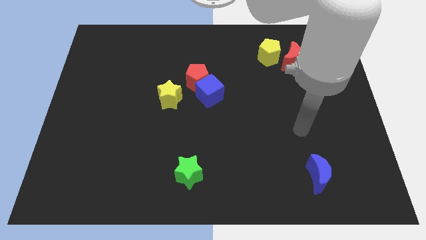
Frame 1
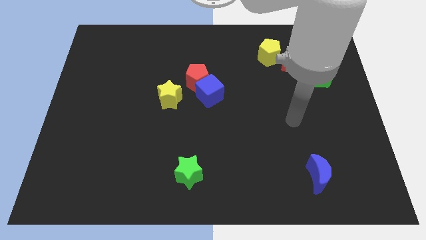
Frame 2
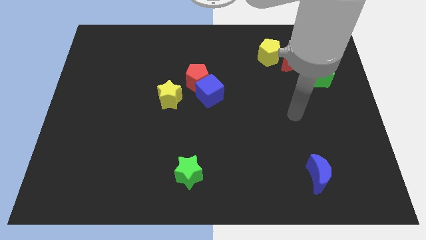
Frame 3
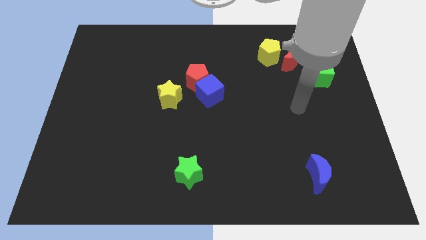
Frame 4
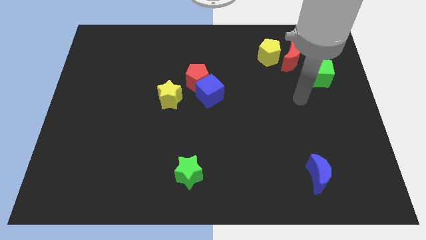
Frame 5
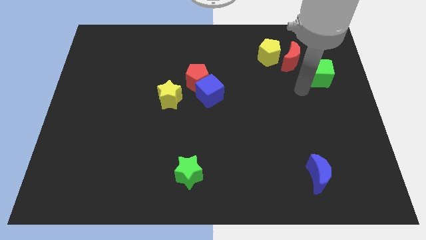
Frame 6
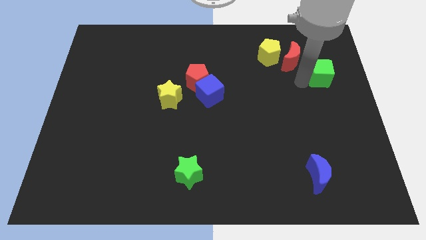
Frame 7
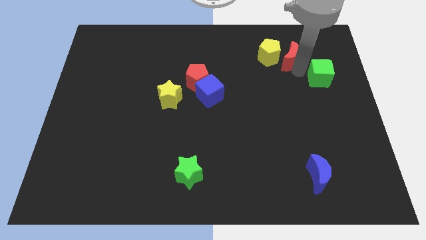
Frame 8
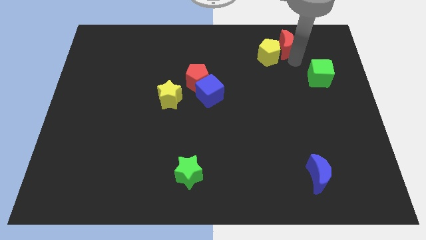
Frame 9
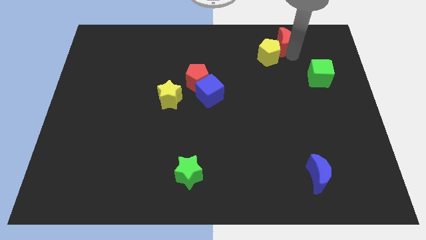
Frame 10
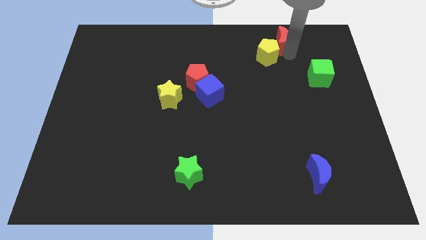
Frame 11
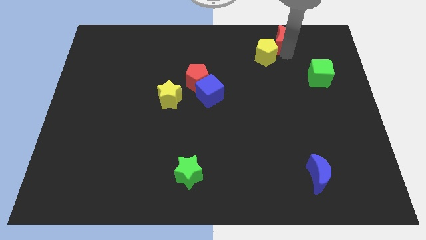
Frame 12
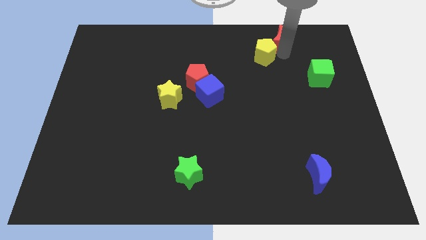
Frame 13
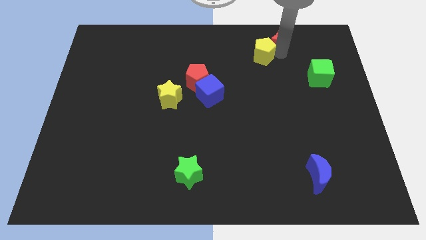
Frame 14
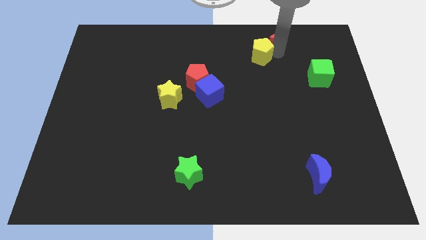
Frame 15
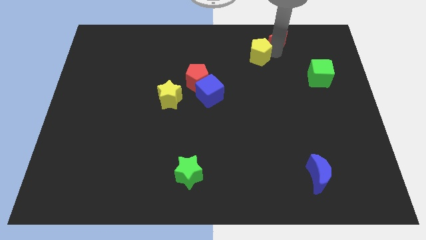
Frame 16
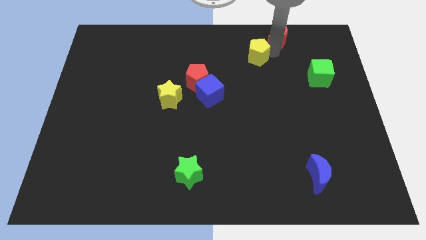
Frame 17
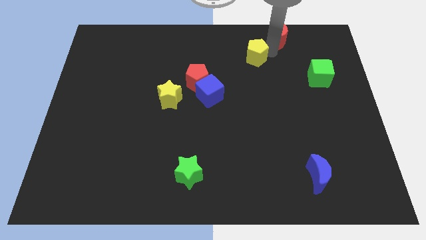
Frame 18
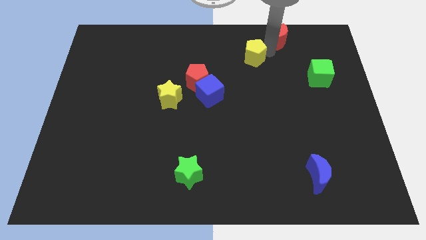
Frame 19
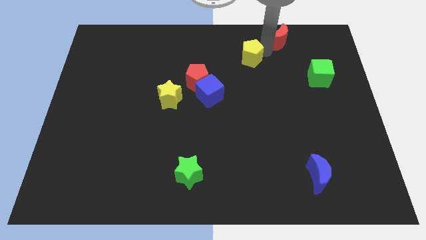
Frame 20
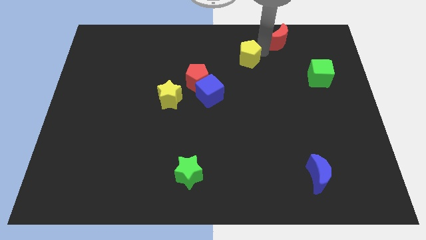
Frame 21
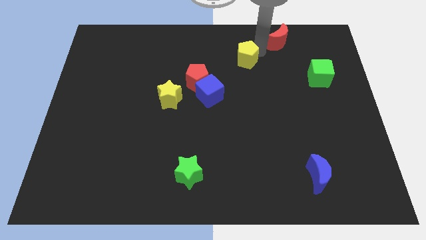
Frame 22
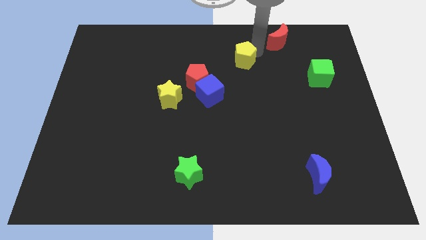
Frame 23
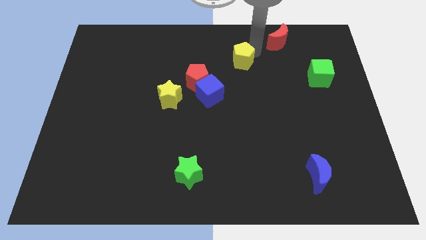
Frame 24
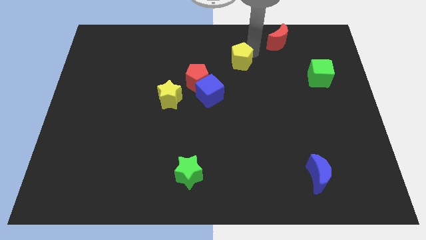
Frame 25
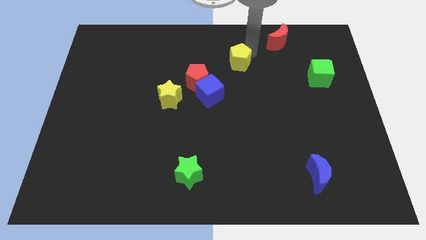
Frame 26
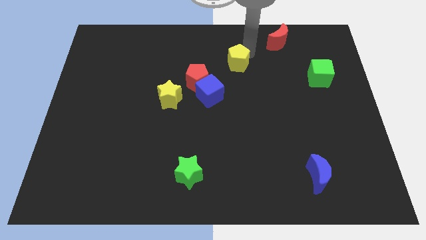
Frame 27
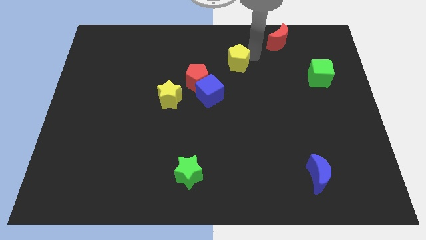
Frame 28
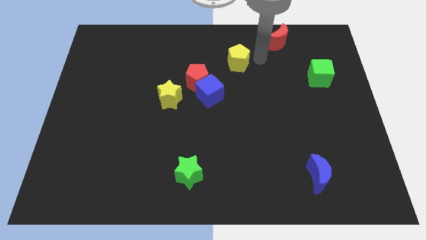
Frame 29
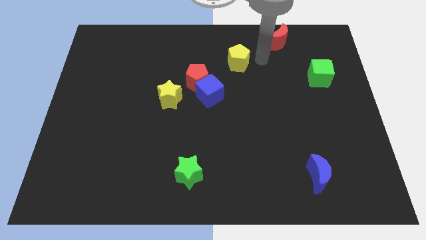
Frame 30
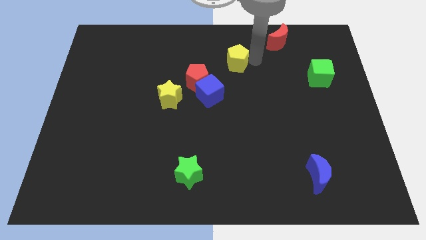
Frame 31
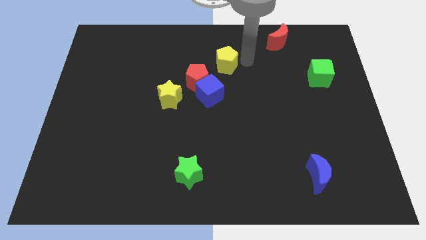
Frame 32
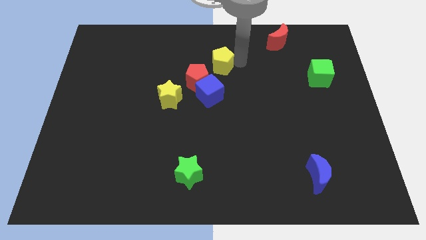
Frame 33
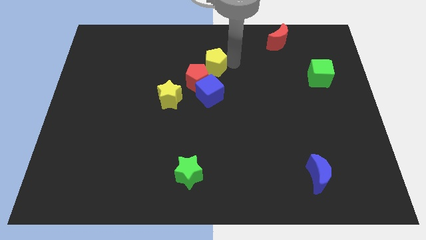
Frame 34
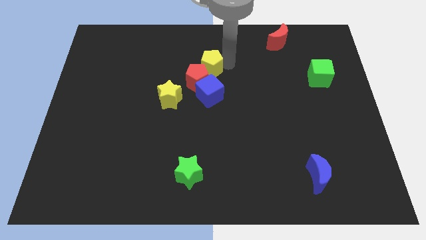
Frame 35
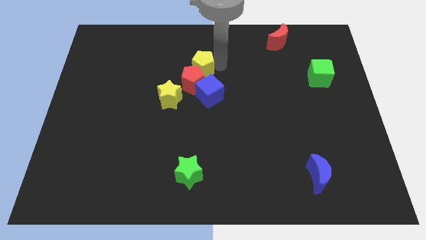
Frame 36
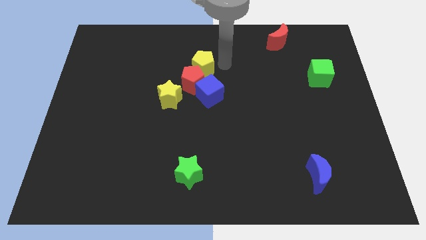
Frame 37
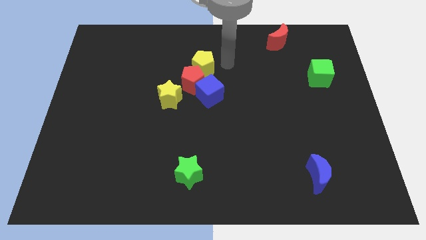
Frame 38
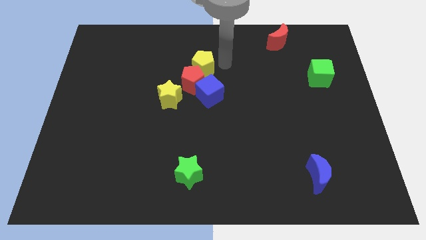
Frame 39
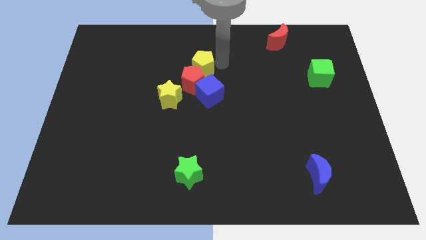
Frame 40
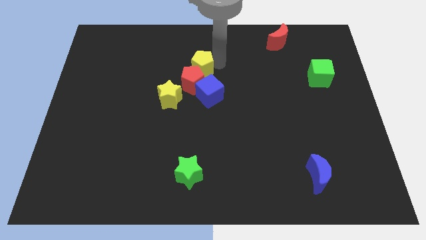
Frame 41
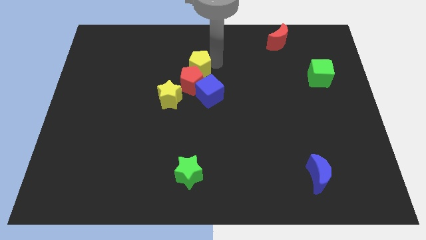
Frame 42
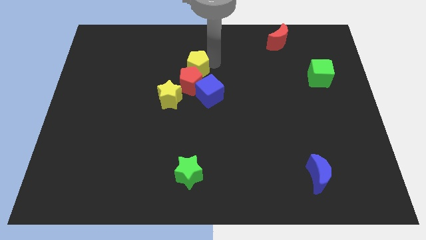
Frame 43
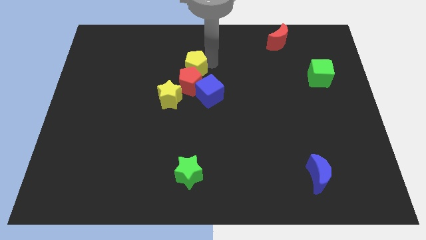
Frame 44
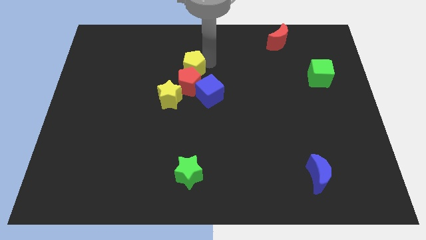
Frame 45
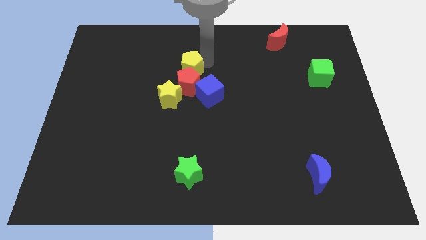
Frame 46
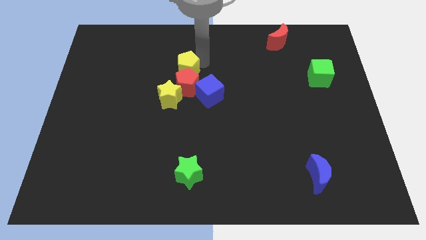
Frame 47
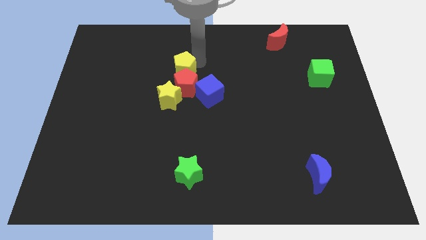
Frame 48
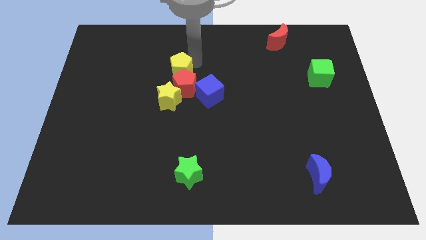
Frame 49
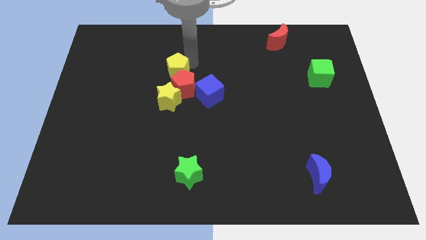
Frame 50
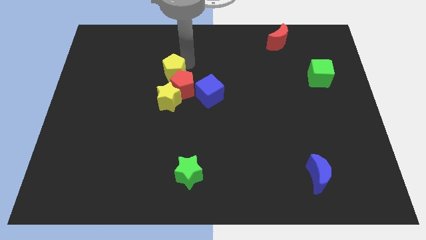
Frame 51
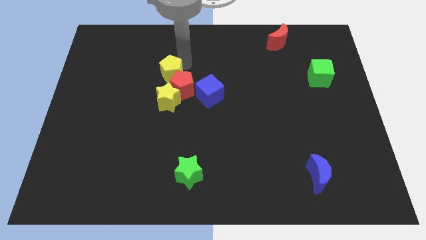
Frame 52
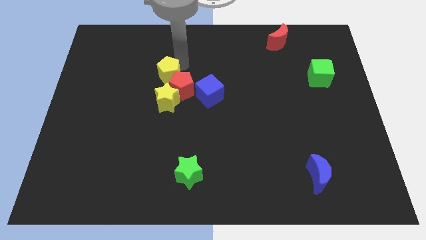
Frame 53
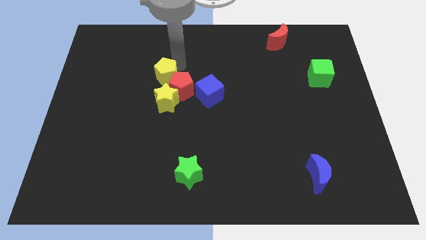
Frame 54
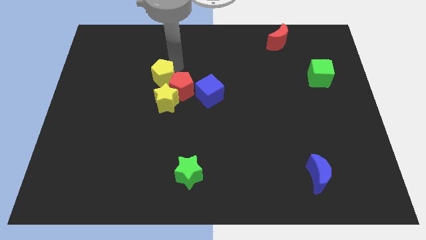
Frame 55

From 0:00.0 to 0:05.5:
slide the yellow pentagon to the top left side of the yellow star

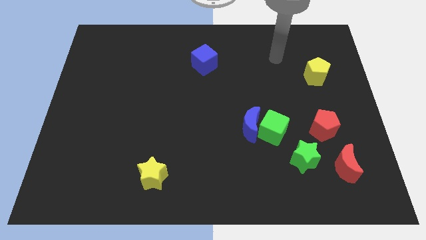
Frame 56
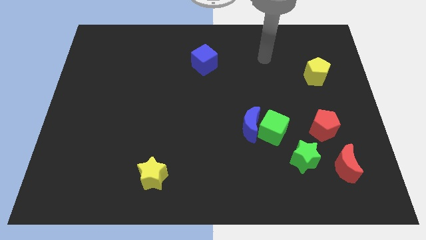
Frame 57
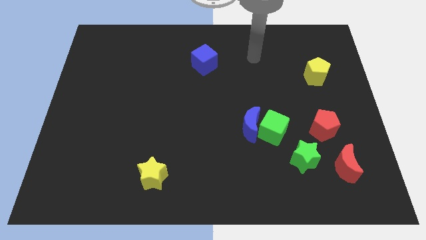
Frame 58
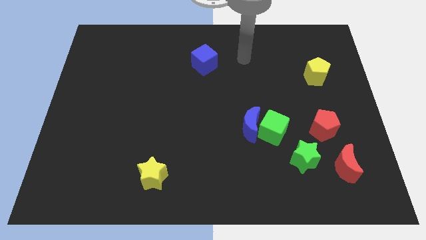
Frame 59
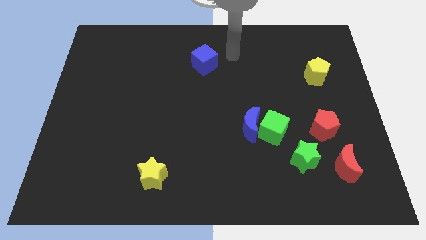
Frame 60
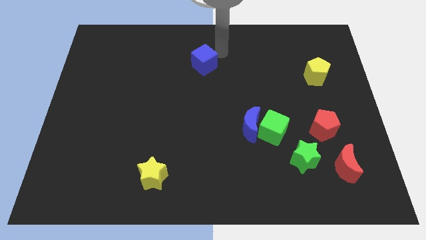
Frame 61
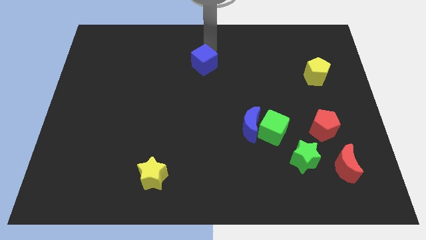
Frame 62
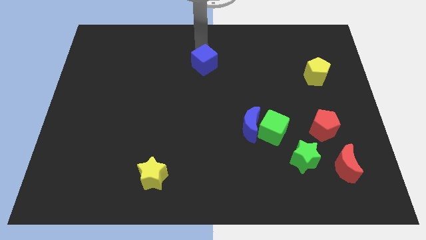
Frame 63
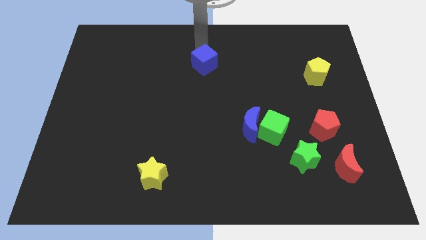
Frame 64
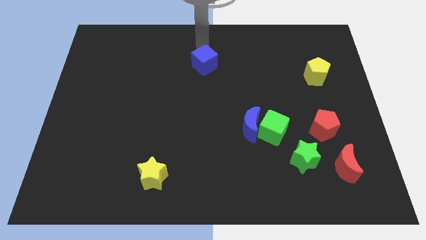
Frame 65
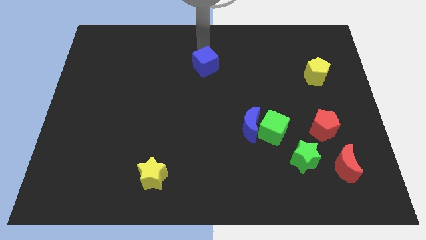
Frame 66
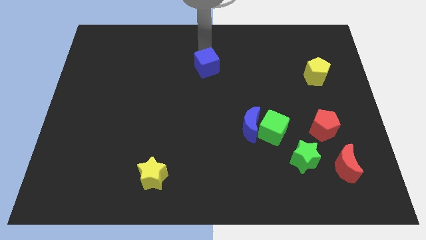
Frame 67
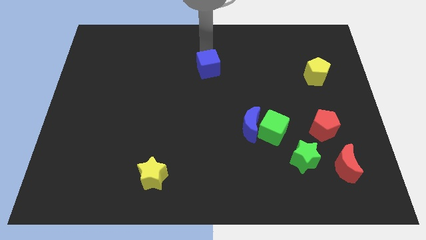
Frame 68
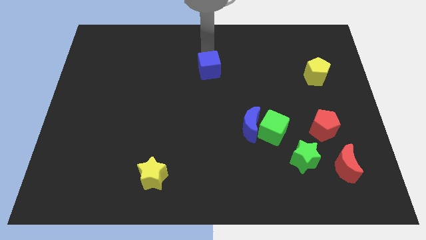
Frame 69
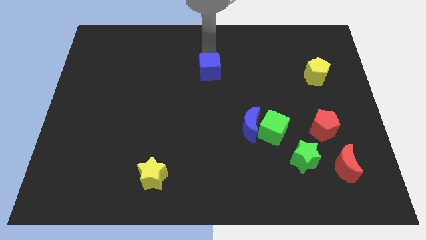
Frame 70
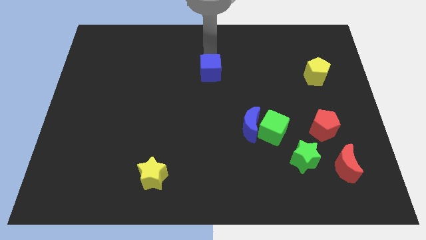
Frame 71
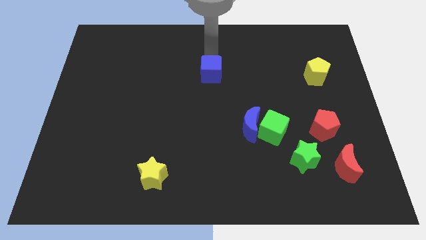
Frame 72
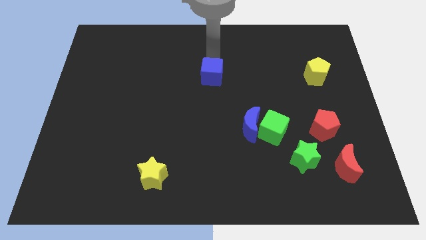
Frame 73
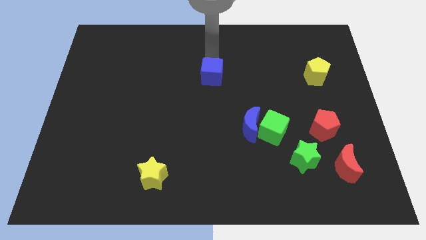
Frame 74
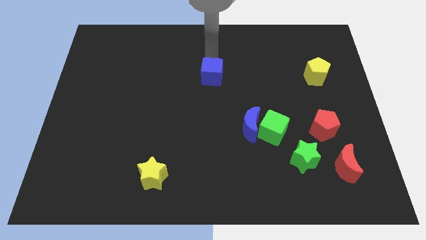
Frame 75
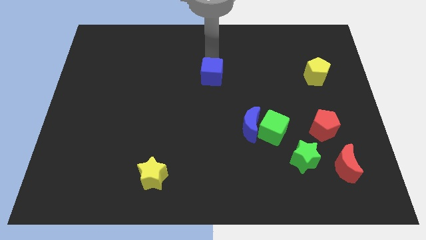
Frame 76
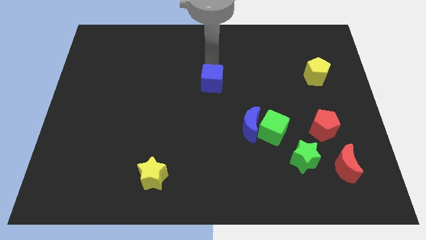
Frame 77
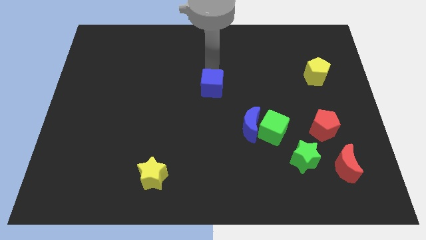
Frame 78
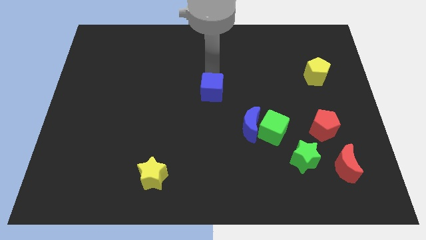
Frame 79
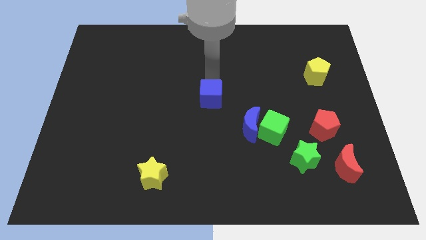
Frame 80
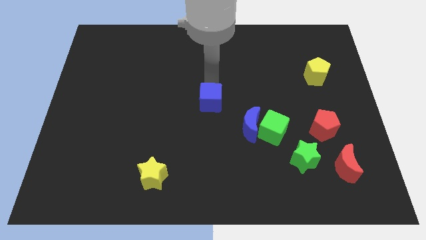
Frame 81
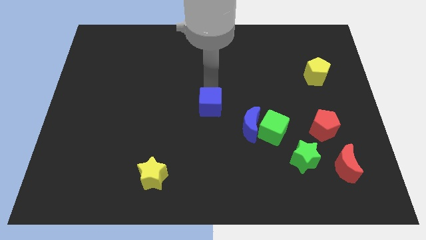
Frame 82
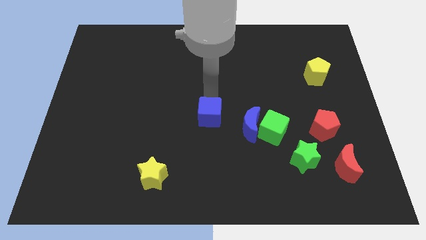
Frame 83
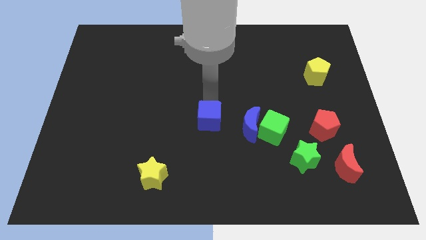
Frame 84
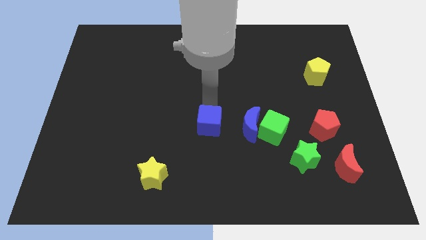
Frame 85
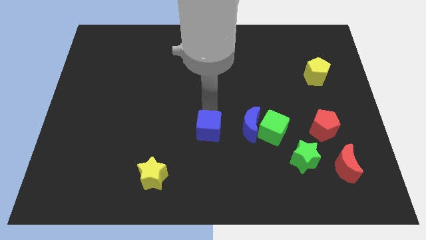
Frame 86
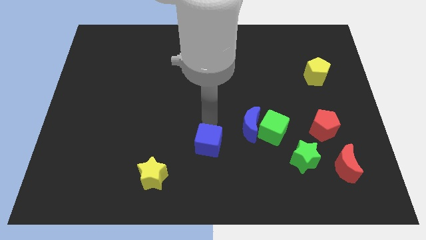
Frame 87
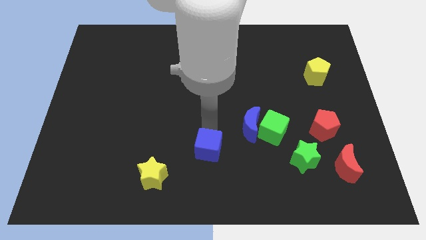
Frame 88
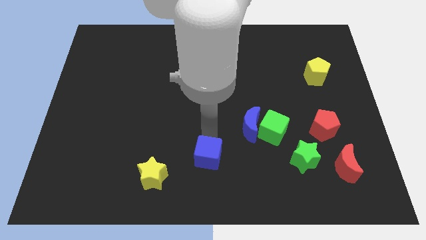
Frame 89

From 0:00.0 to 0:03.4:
move the blue cube to the right of the yellow star
